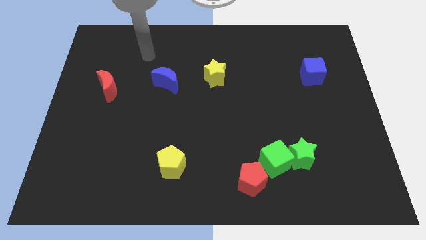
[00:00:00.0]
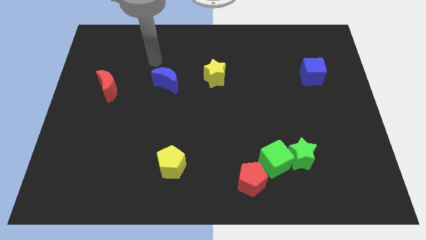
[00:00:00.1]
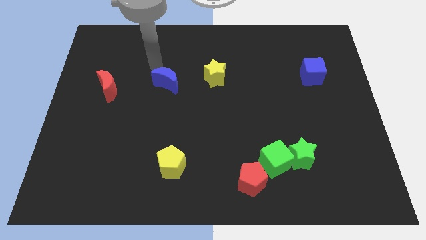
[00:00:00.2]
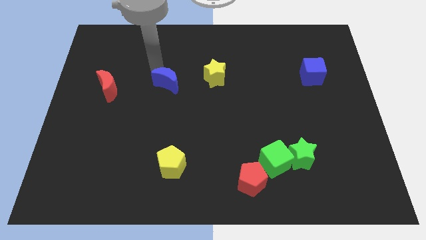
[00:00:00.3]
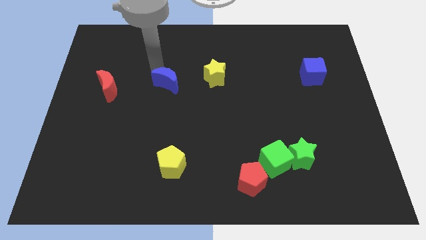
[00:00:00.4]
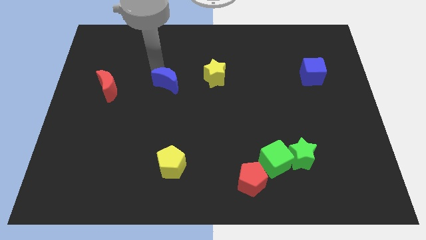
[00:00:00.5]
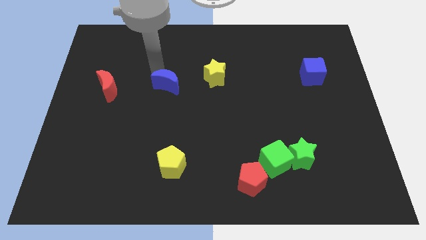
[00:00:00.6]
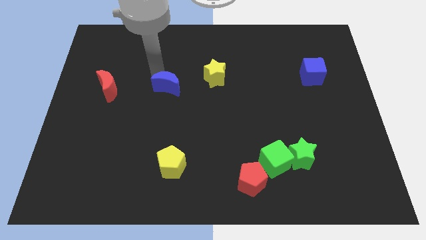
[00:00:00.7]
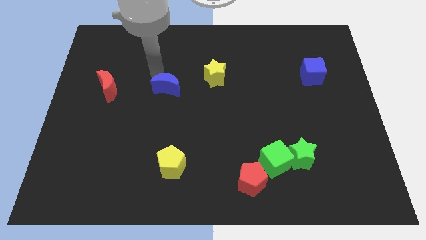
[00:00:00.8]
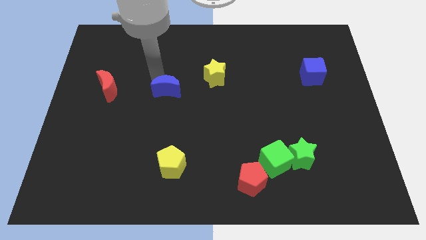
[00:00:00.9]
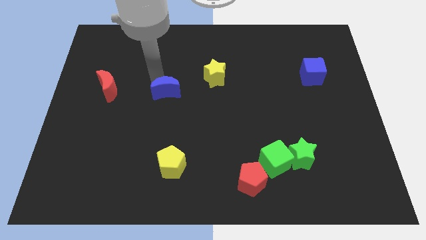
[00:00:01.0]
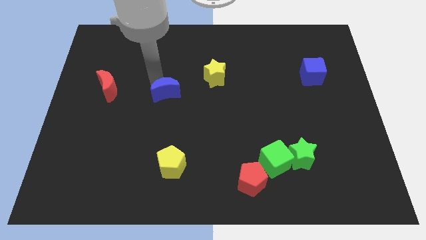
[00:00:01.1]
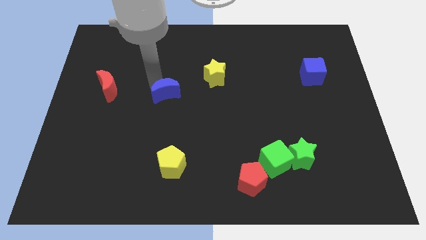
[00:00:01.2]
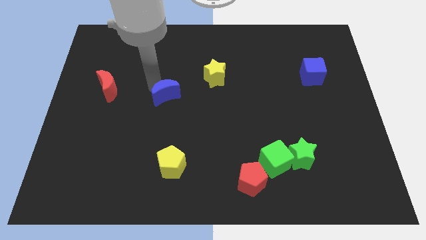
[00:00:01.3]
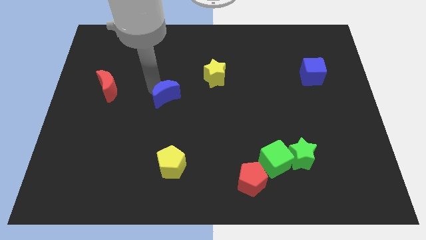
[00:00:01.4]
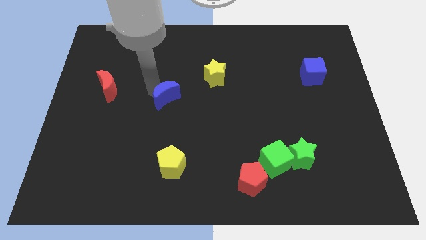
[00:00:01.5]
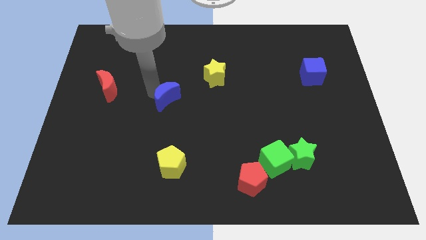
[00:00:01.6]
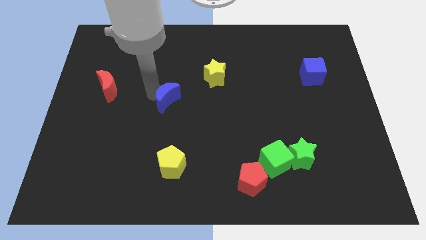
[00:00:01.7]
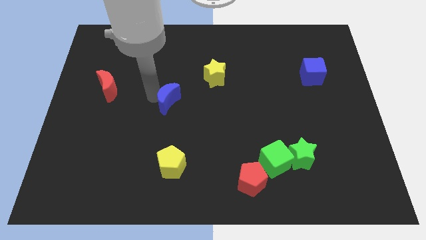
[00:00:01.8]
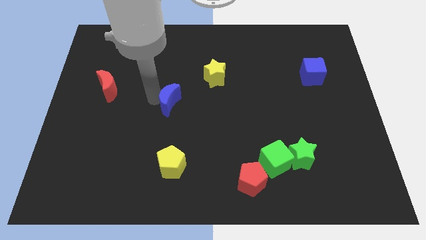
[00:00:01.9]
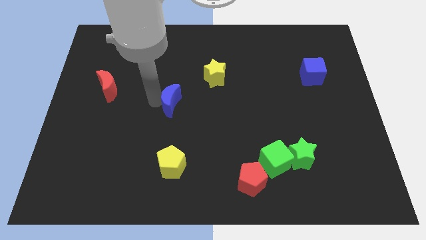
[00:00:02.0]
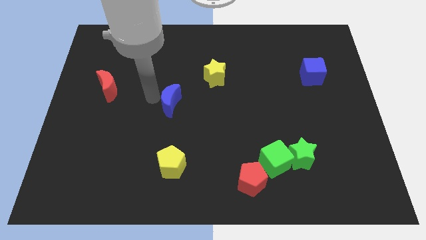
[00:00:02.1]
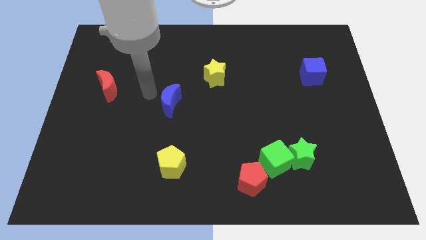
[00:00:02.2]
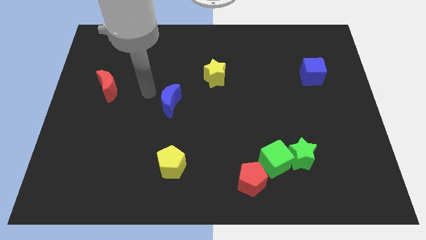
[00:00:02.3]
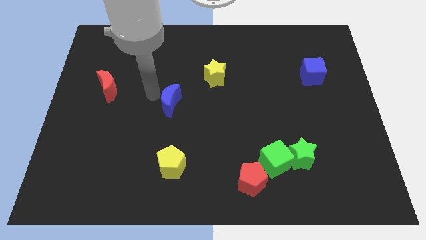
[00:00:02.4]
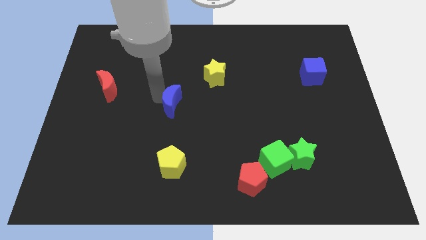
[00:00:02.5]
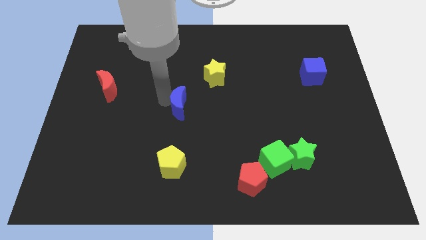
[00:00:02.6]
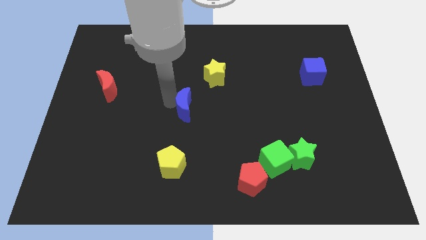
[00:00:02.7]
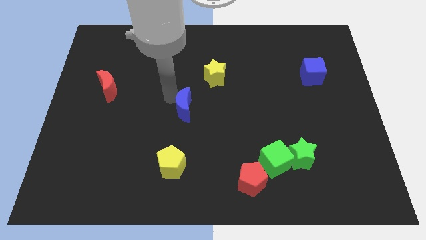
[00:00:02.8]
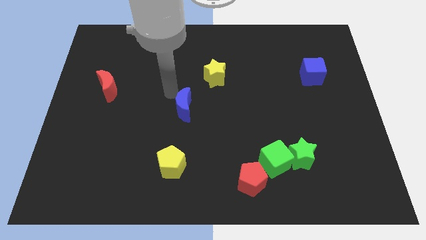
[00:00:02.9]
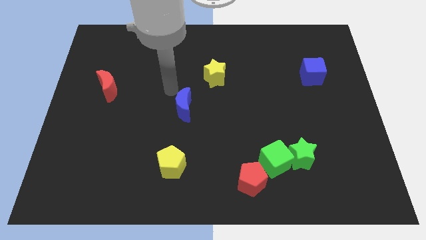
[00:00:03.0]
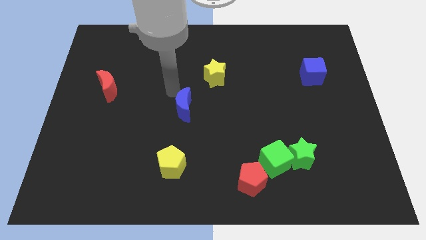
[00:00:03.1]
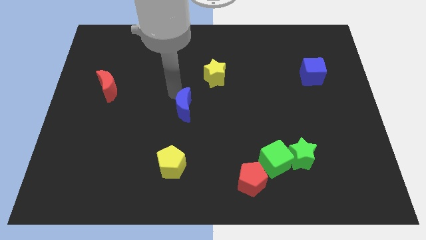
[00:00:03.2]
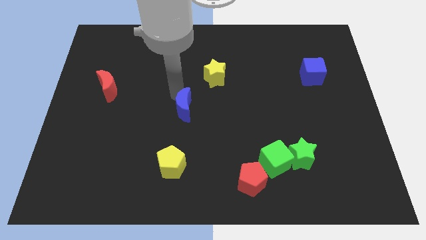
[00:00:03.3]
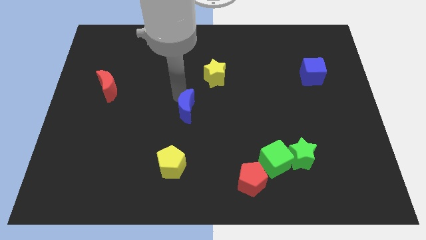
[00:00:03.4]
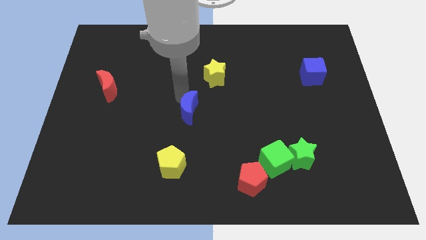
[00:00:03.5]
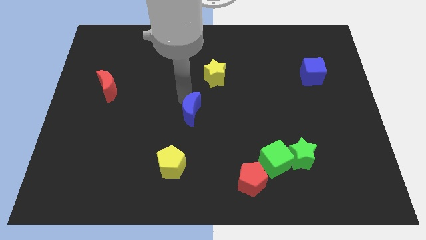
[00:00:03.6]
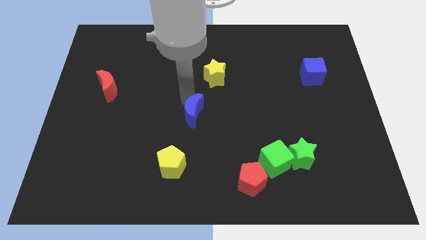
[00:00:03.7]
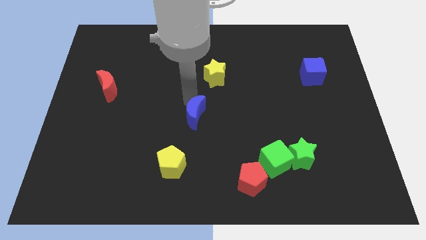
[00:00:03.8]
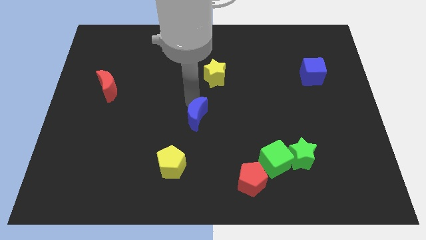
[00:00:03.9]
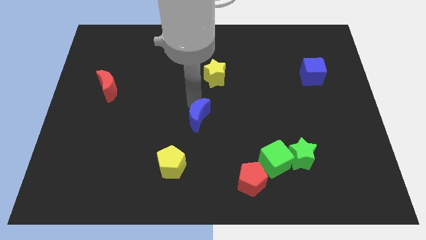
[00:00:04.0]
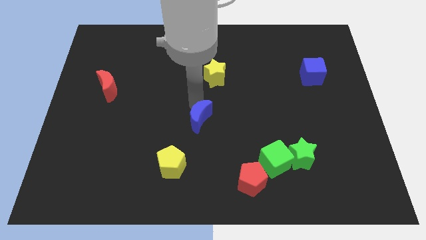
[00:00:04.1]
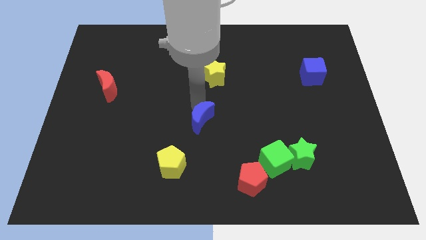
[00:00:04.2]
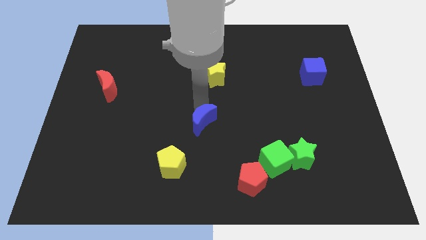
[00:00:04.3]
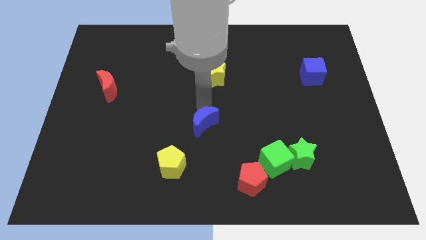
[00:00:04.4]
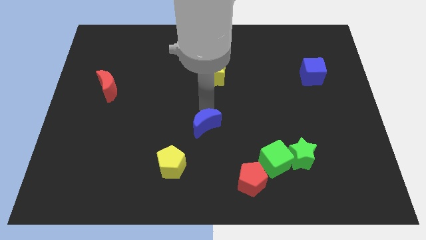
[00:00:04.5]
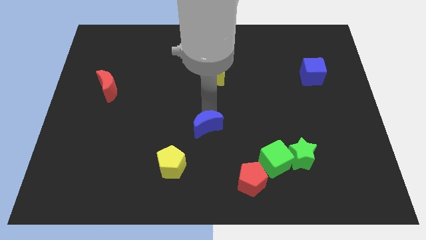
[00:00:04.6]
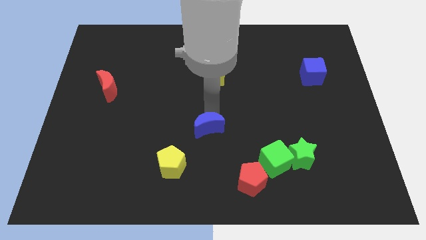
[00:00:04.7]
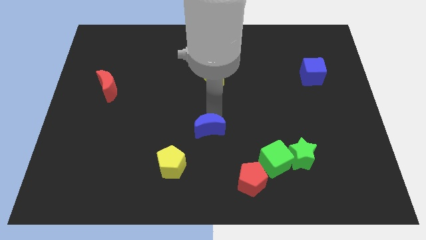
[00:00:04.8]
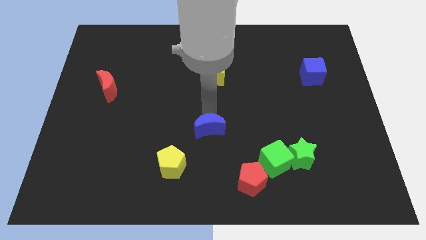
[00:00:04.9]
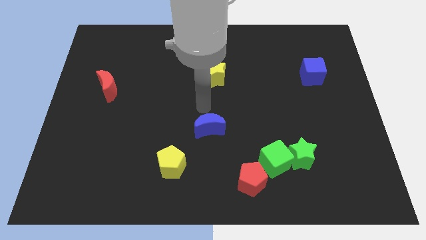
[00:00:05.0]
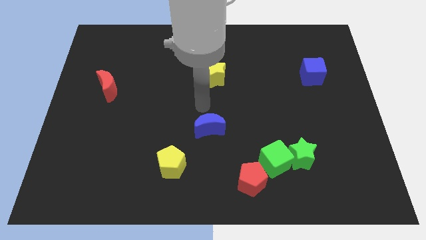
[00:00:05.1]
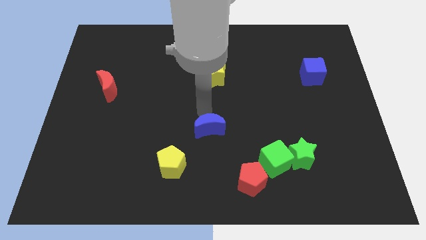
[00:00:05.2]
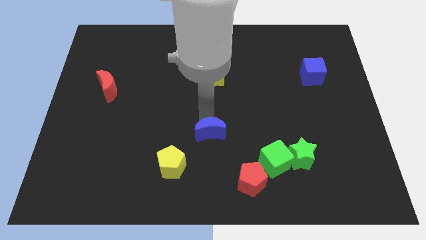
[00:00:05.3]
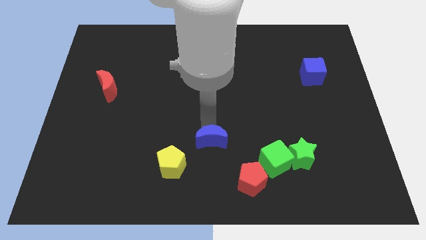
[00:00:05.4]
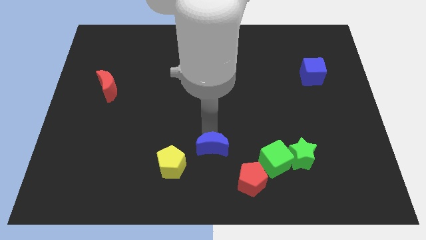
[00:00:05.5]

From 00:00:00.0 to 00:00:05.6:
put the blue moon to the right side of the yellow pentagon

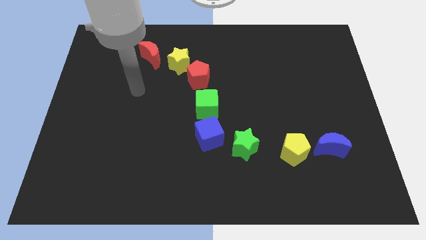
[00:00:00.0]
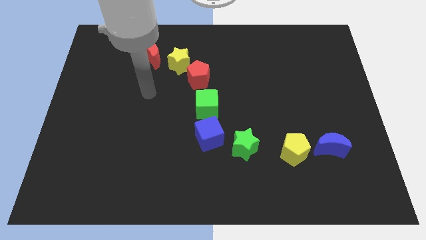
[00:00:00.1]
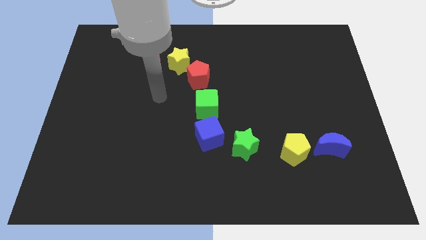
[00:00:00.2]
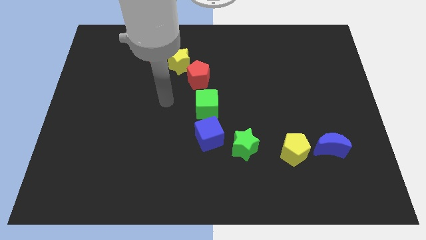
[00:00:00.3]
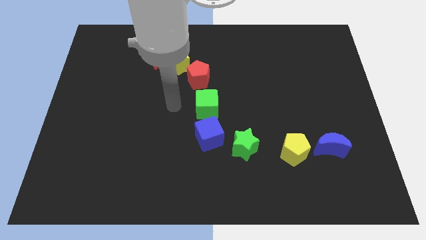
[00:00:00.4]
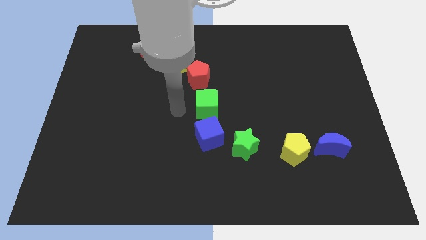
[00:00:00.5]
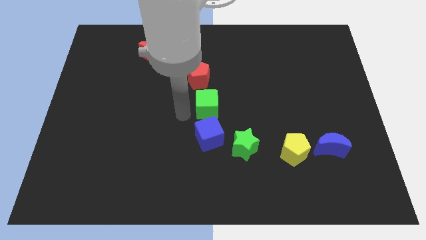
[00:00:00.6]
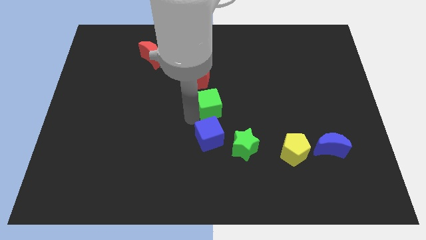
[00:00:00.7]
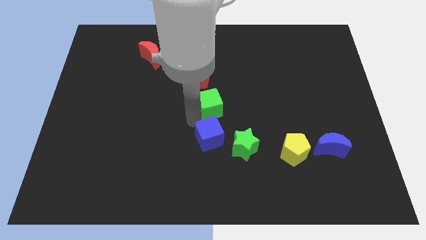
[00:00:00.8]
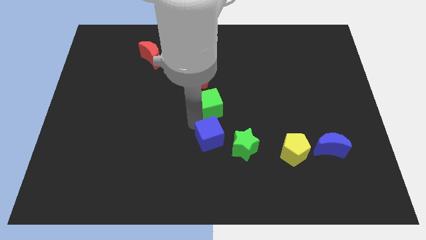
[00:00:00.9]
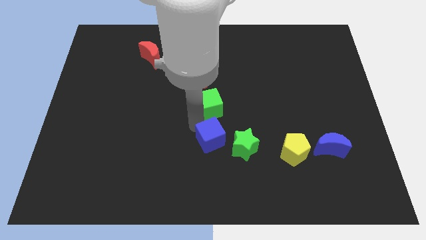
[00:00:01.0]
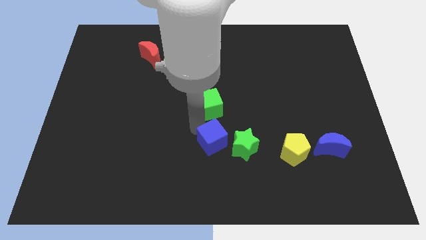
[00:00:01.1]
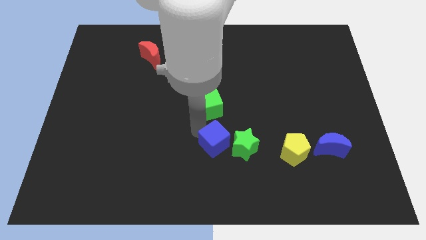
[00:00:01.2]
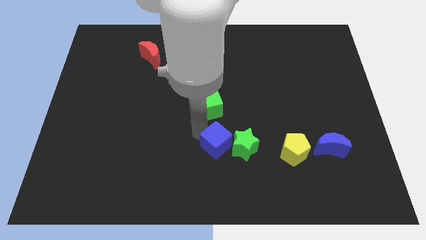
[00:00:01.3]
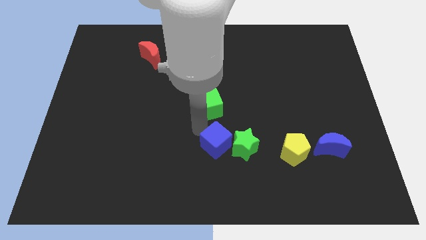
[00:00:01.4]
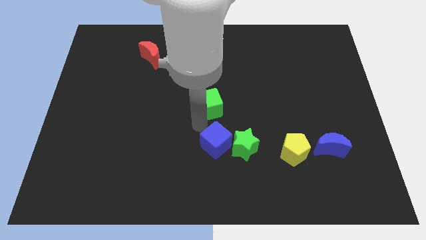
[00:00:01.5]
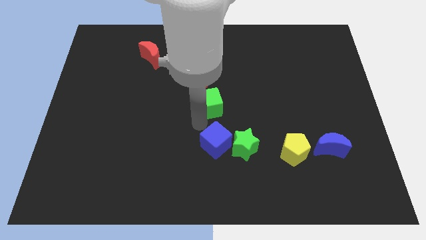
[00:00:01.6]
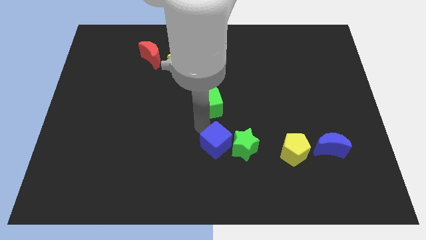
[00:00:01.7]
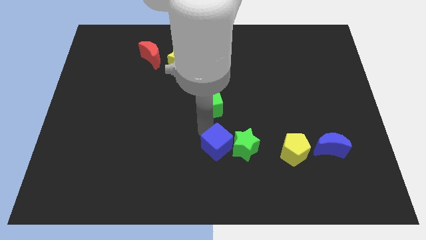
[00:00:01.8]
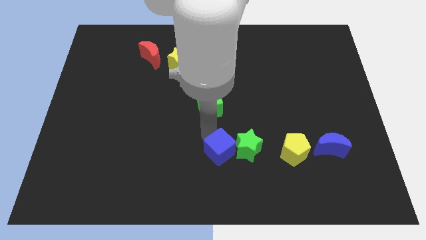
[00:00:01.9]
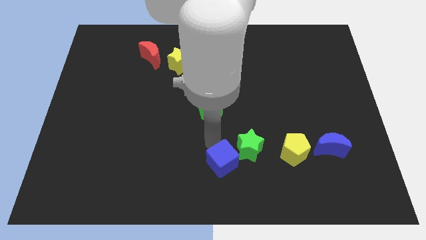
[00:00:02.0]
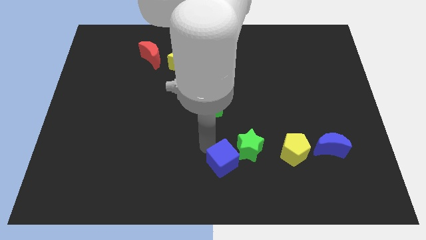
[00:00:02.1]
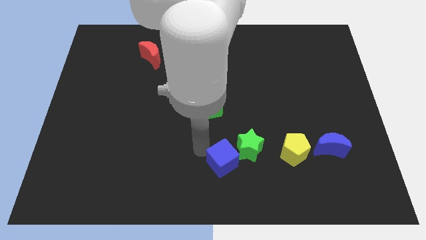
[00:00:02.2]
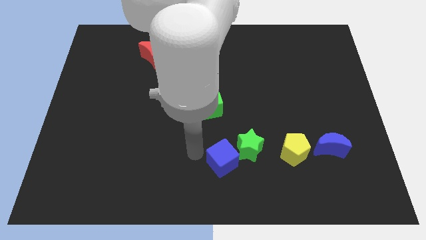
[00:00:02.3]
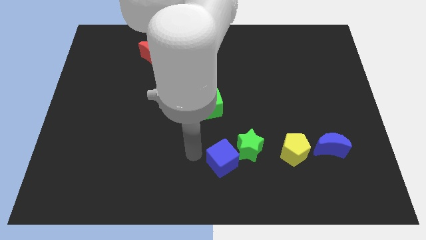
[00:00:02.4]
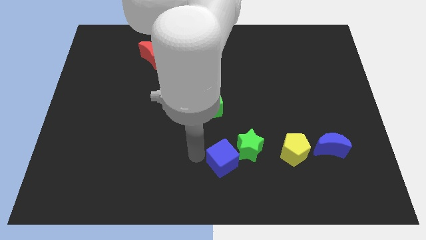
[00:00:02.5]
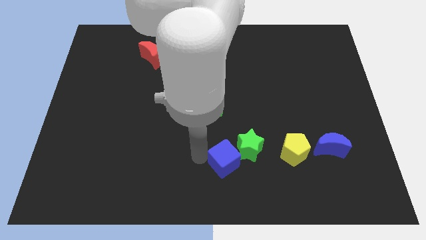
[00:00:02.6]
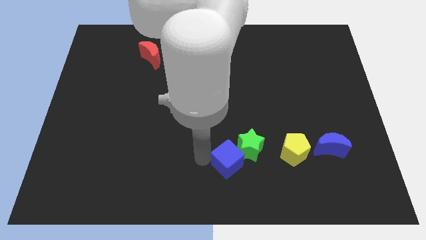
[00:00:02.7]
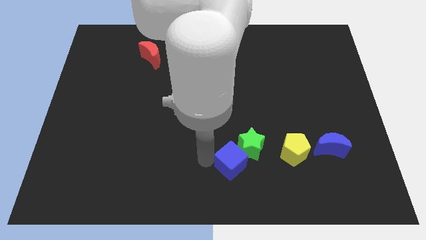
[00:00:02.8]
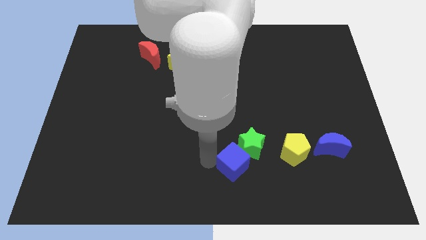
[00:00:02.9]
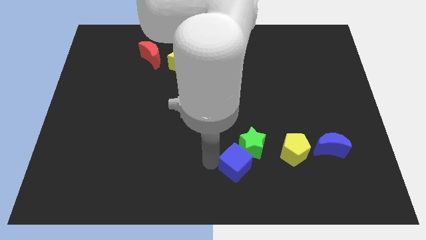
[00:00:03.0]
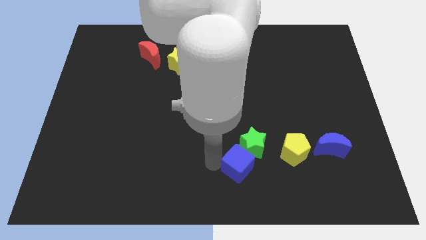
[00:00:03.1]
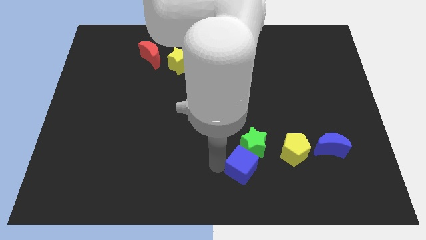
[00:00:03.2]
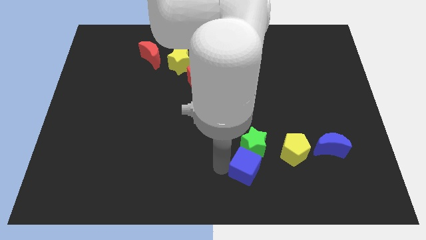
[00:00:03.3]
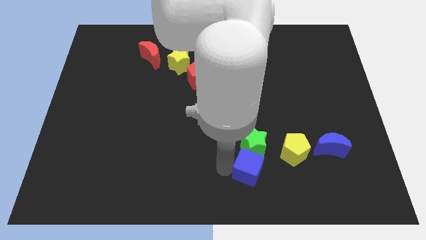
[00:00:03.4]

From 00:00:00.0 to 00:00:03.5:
push the blue cube diagonally down and to the right of the green star
